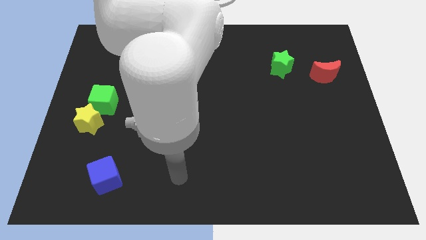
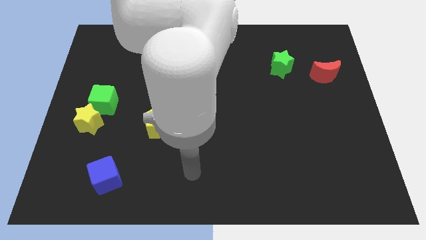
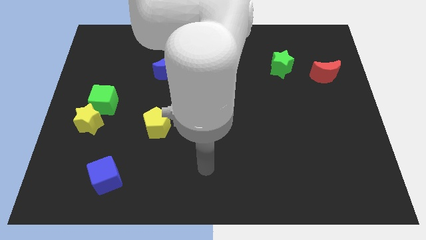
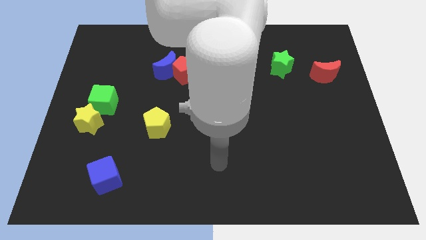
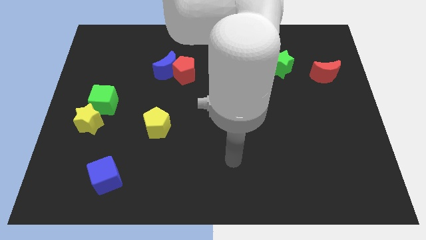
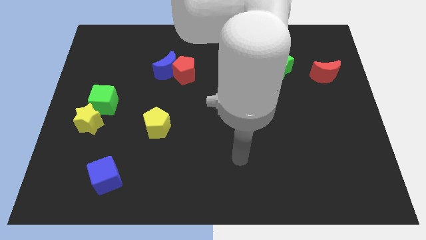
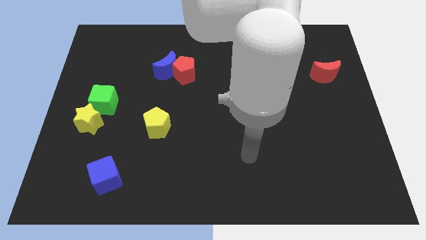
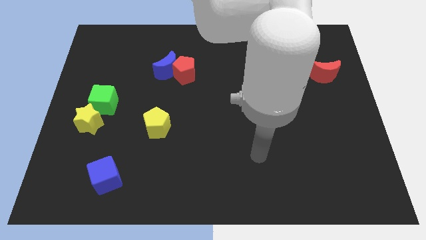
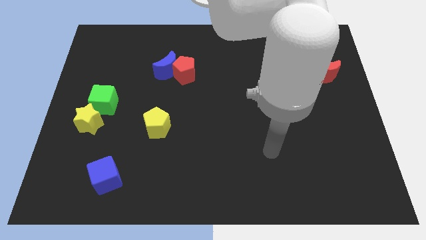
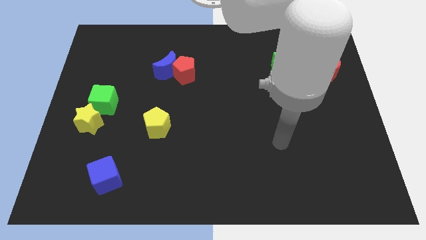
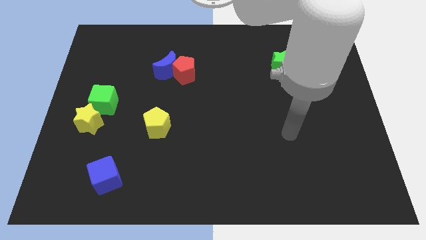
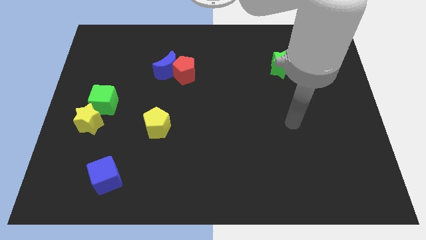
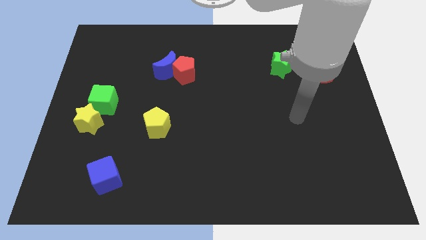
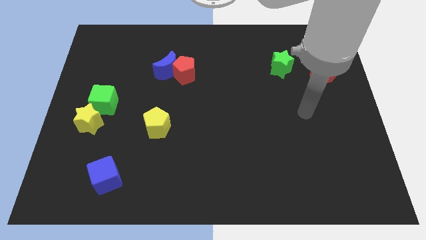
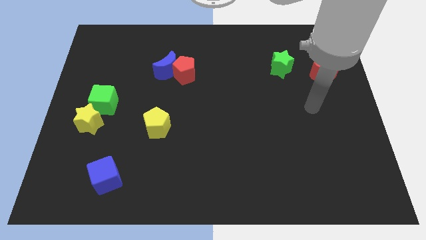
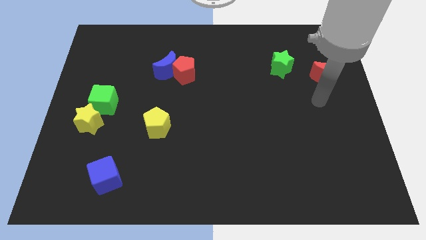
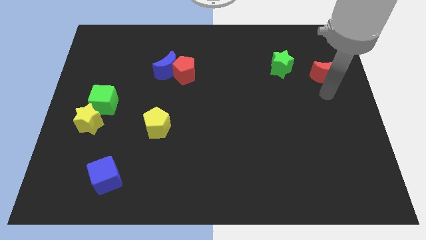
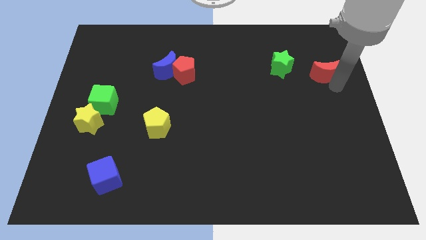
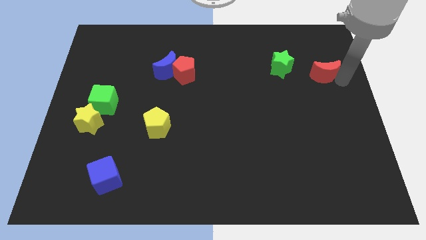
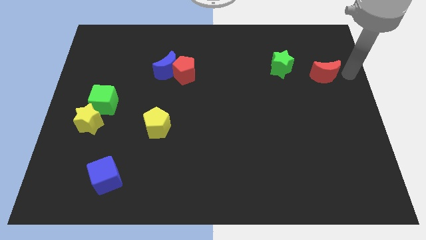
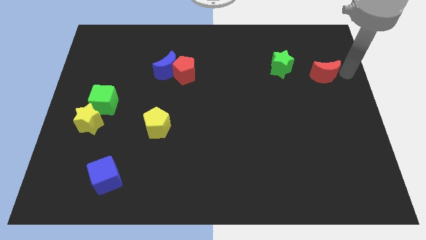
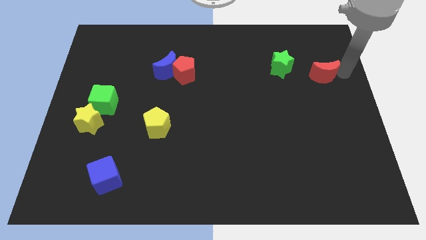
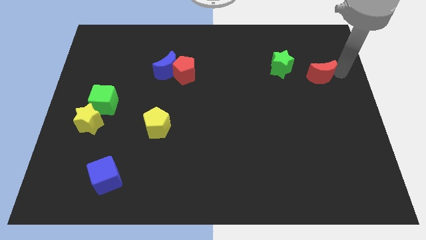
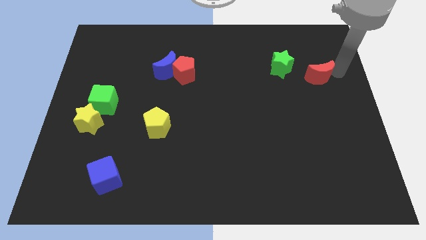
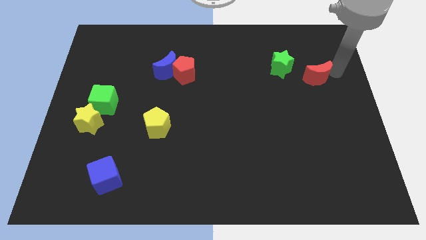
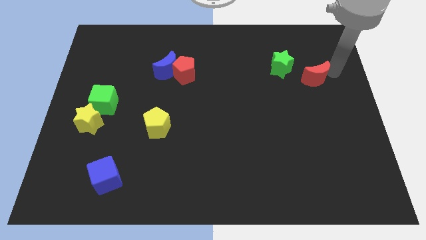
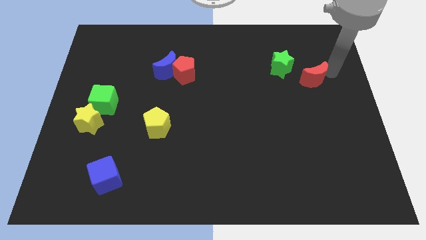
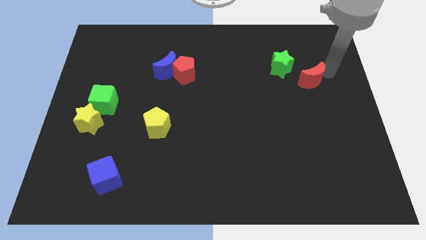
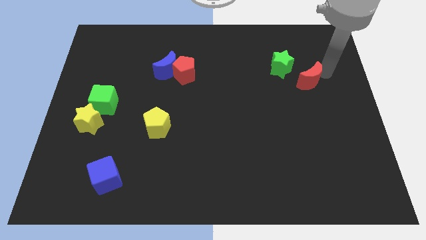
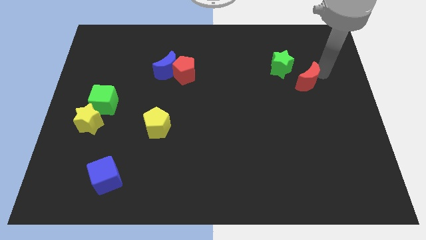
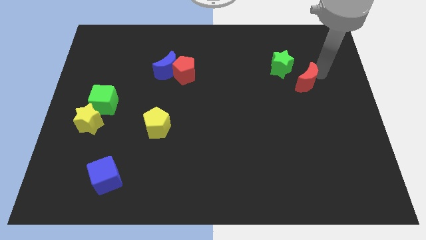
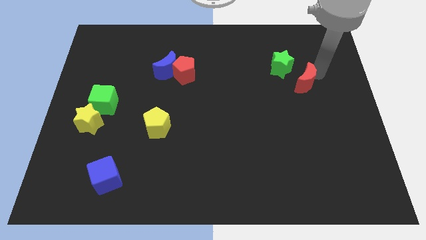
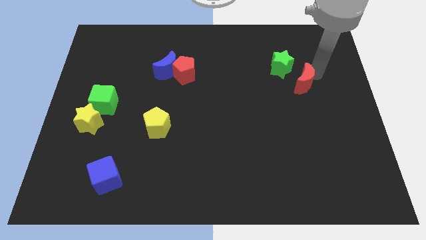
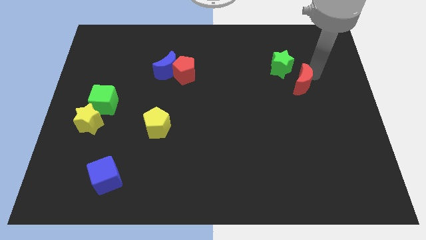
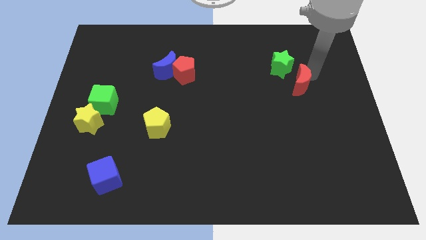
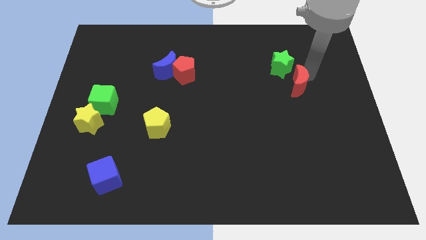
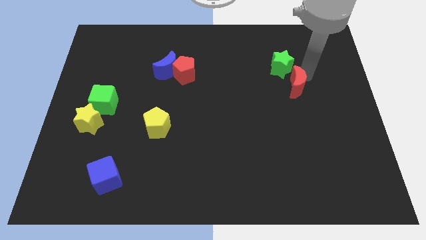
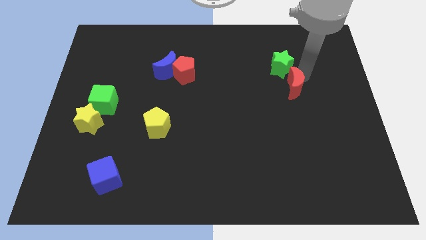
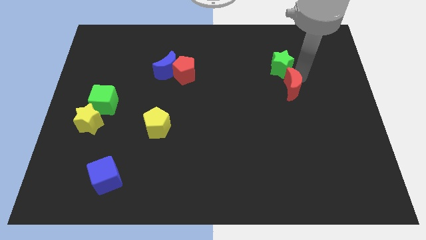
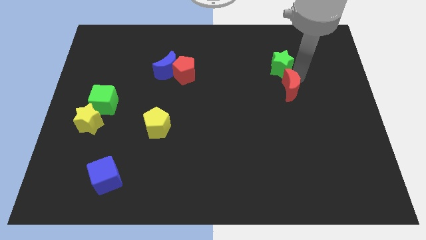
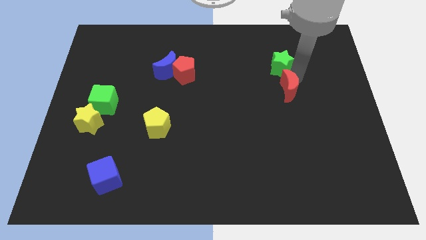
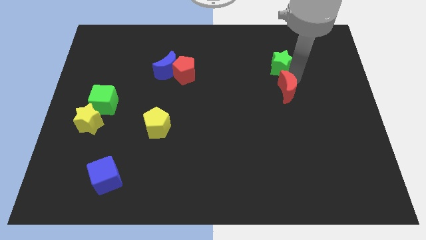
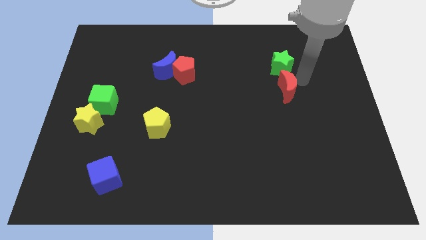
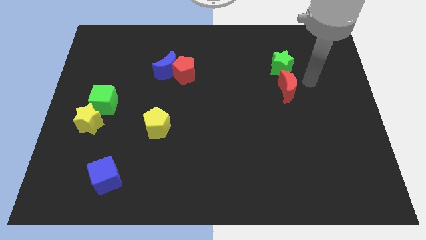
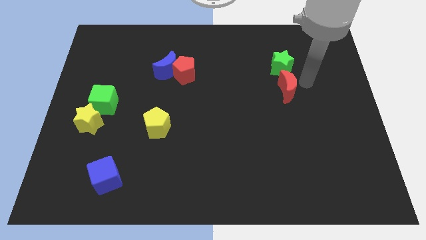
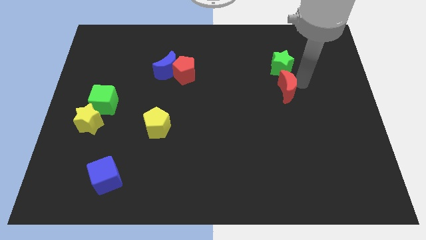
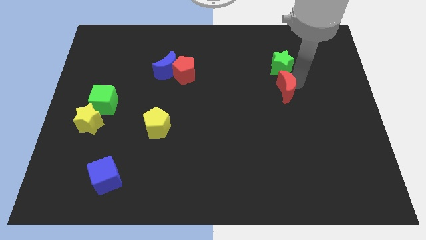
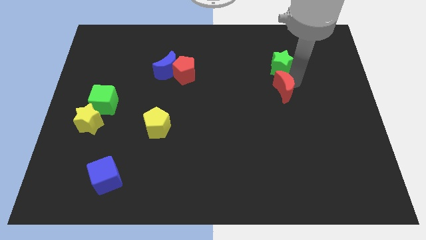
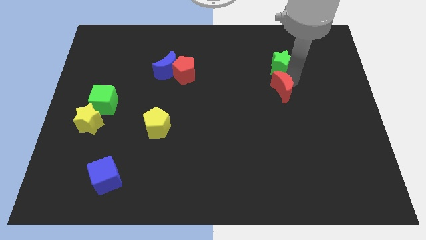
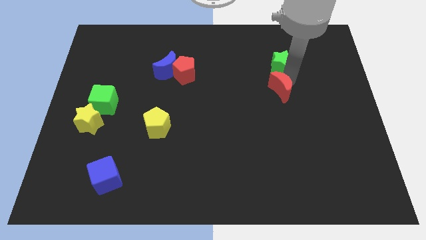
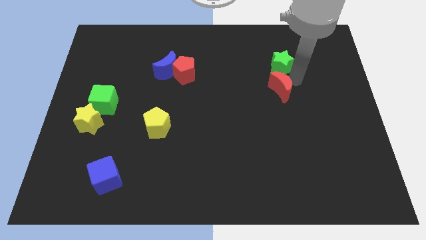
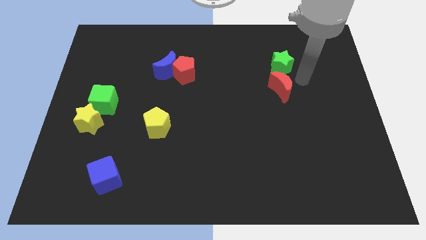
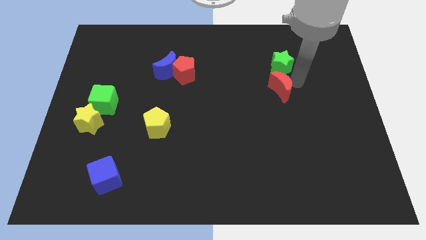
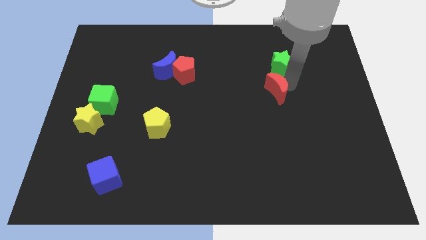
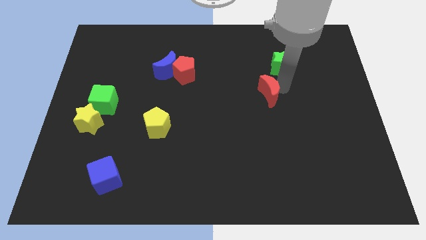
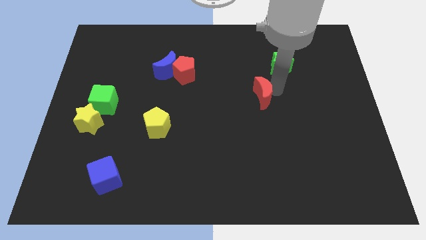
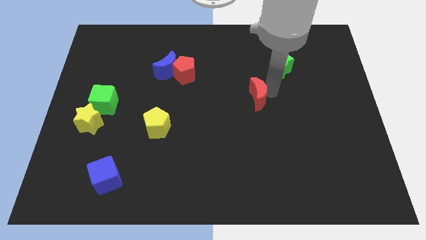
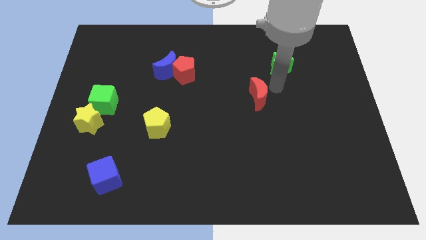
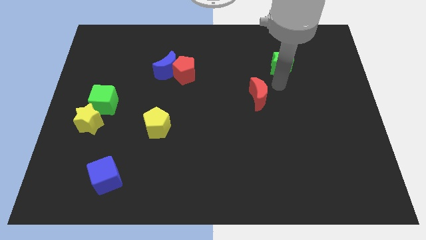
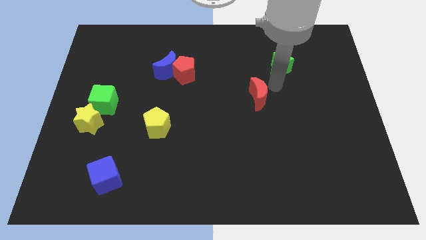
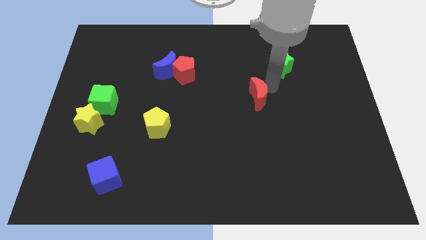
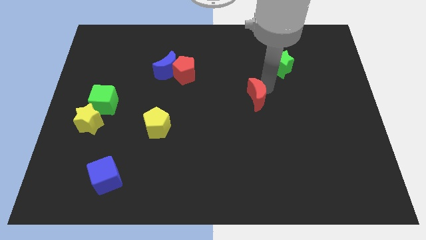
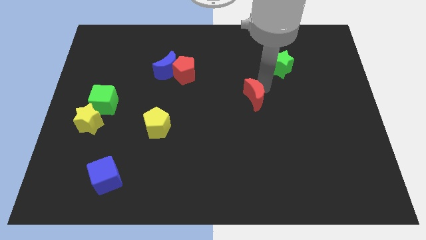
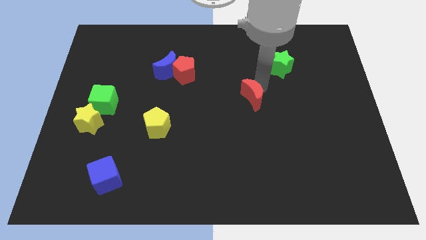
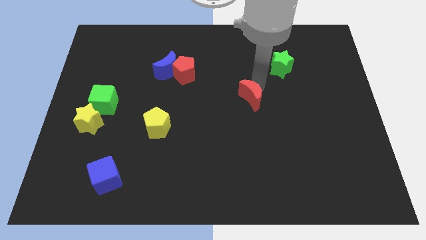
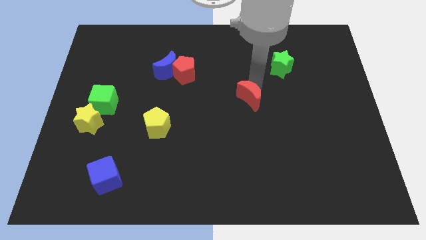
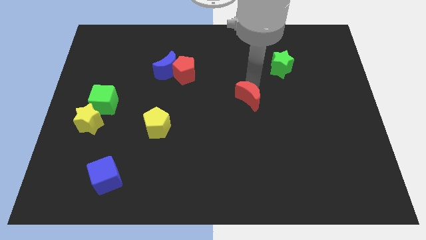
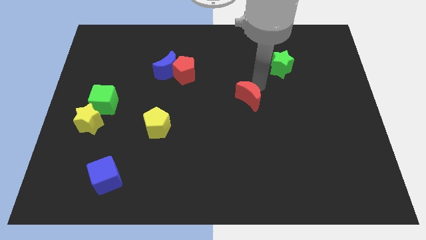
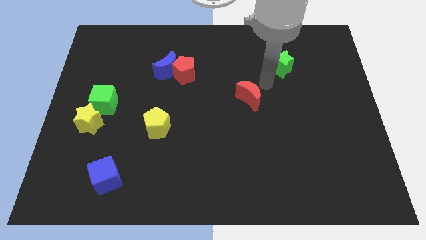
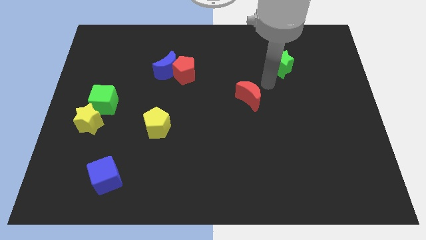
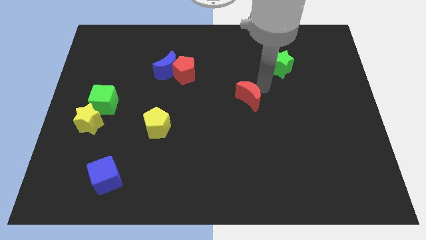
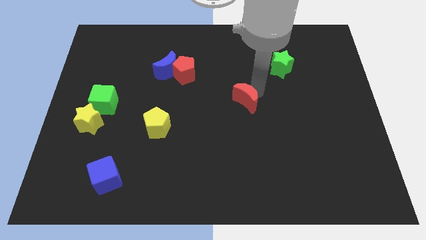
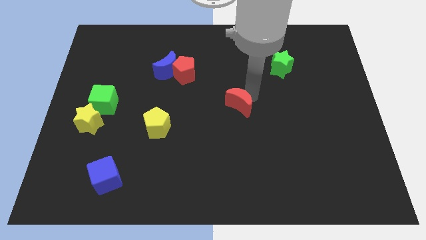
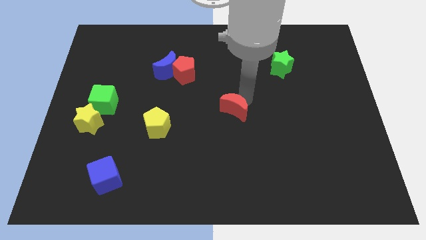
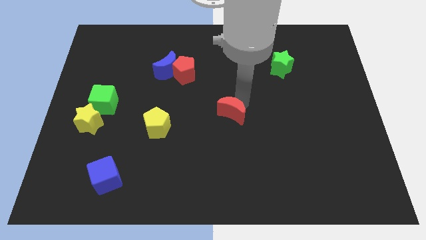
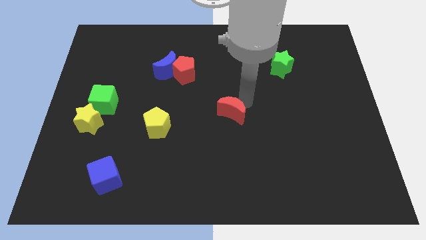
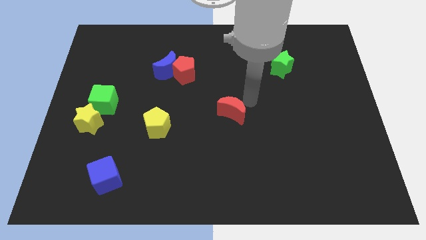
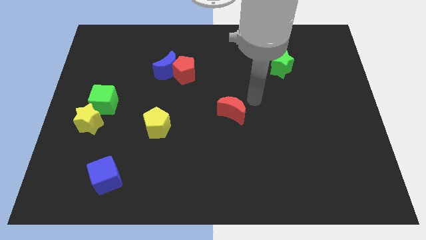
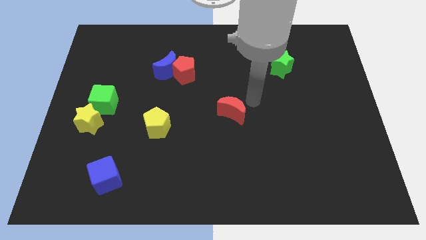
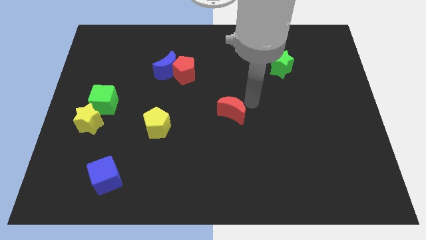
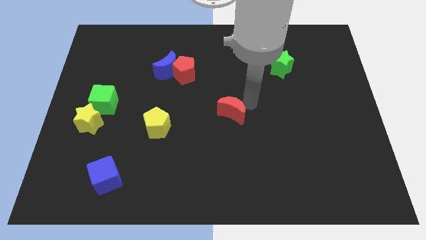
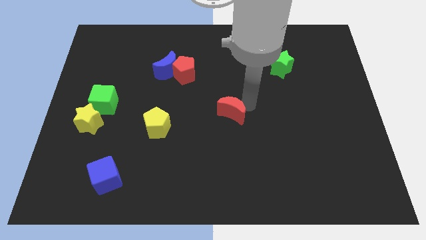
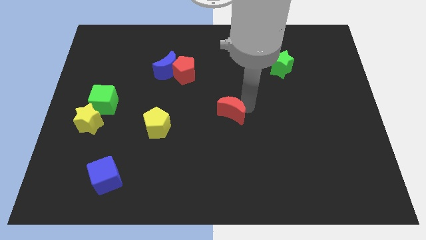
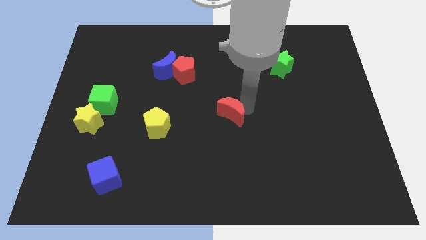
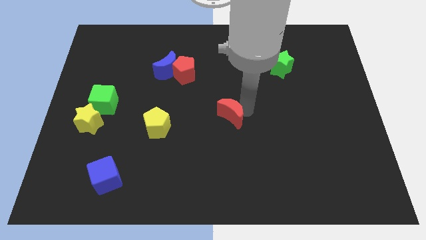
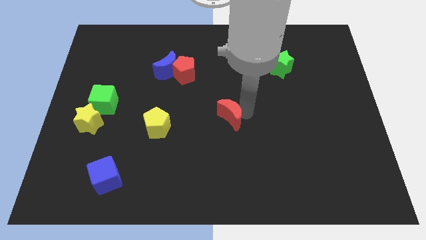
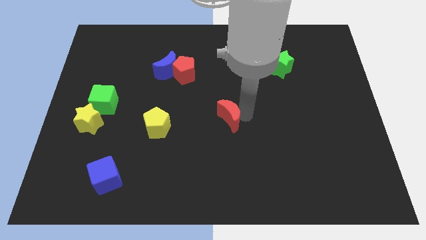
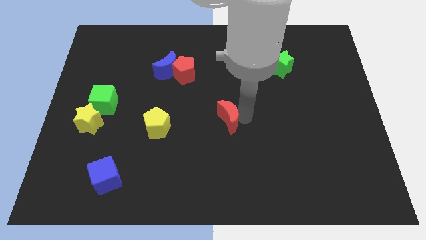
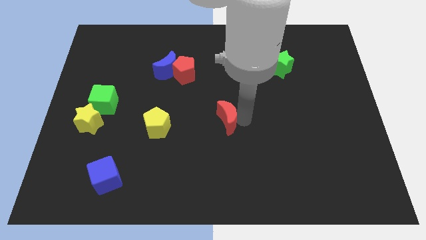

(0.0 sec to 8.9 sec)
move the red moon just right of the yellow pentagon
